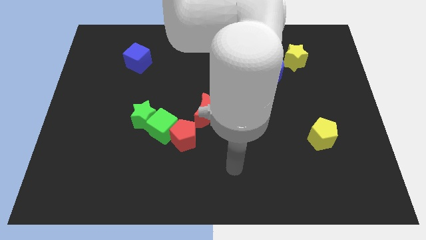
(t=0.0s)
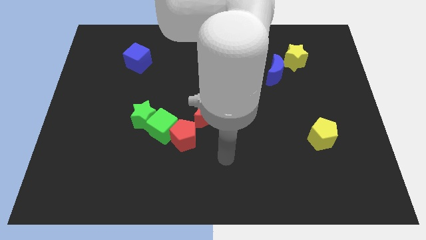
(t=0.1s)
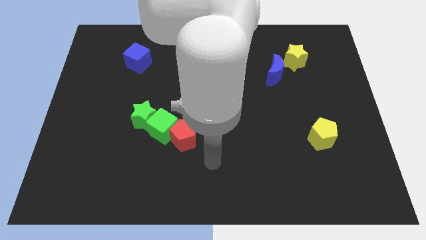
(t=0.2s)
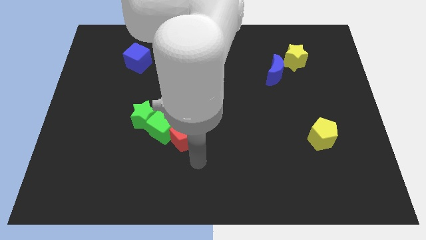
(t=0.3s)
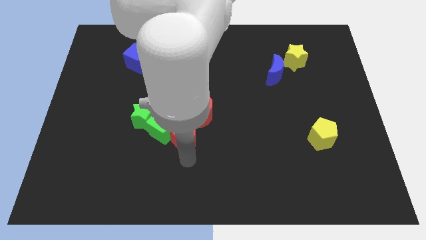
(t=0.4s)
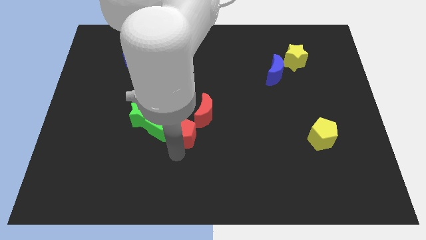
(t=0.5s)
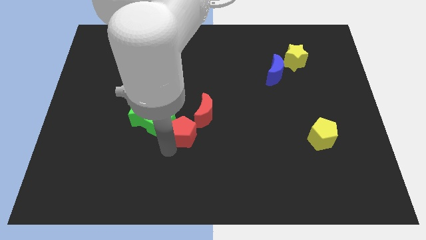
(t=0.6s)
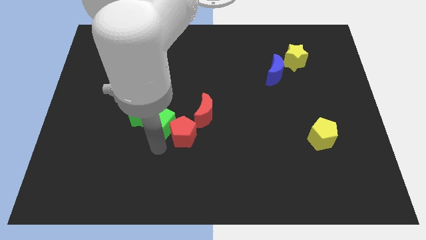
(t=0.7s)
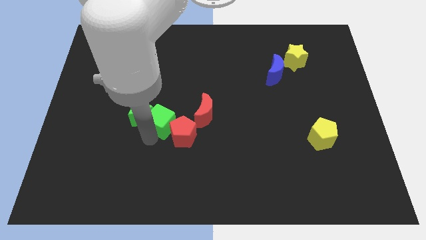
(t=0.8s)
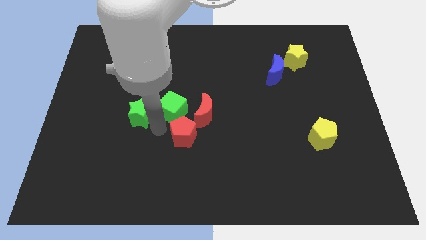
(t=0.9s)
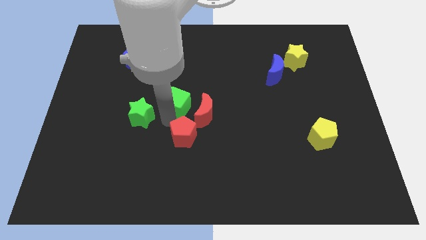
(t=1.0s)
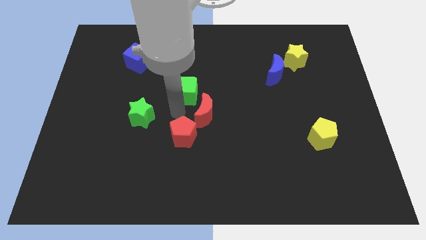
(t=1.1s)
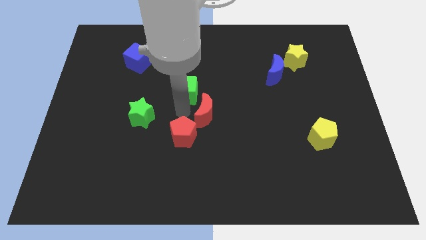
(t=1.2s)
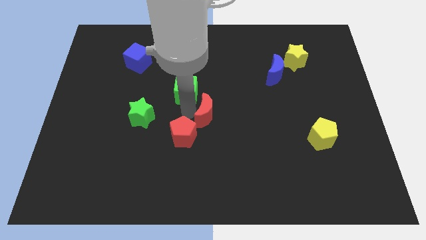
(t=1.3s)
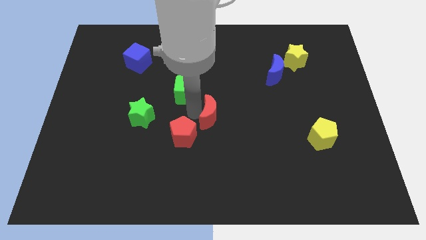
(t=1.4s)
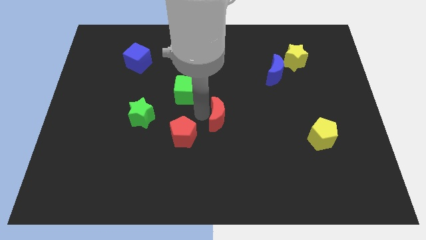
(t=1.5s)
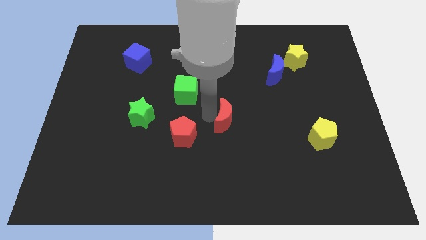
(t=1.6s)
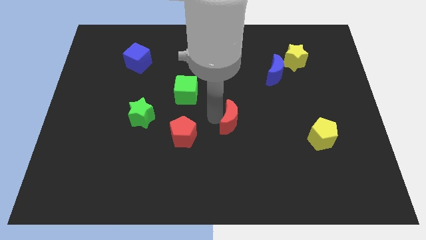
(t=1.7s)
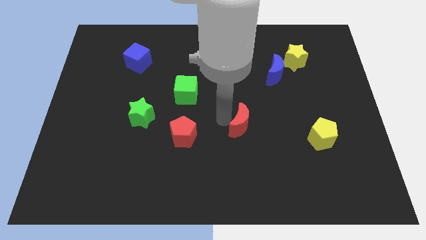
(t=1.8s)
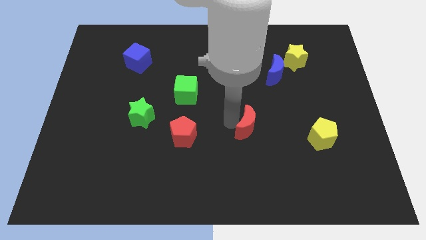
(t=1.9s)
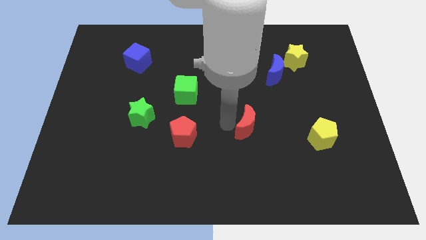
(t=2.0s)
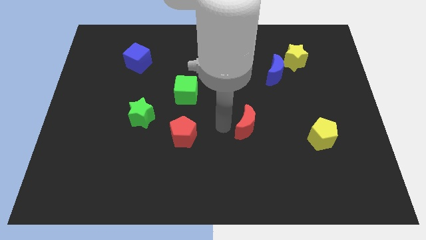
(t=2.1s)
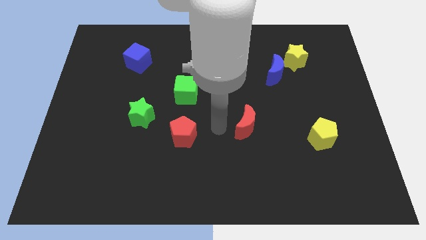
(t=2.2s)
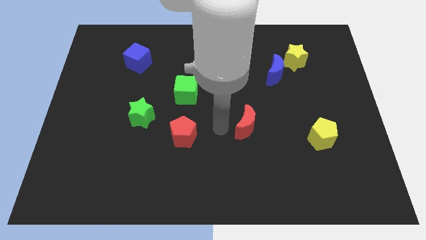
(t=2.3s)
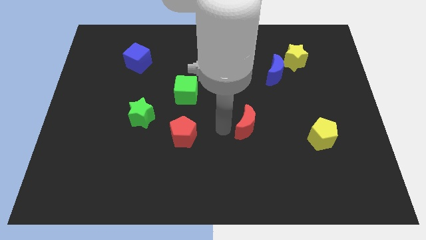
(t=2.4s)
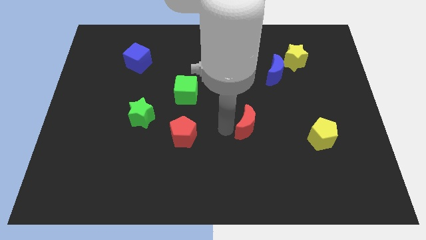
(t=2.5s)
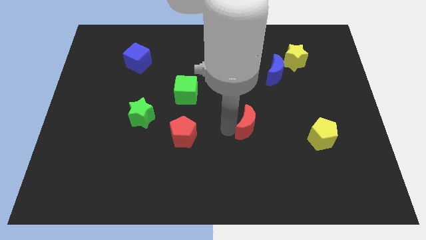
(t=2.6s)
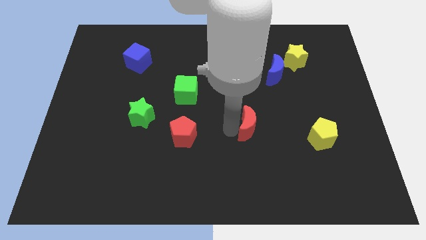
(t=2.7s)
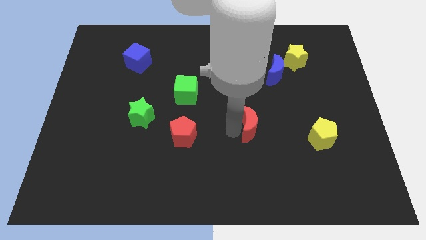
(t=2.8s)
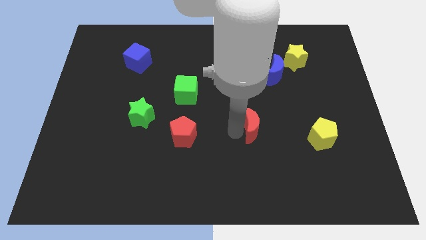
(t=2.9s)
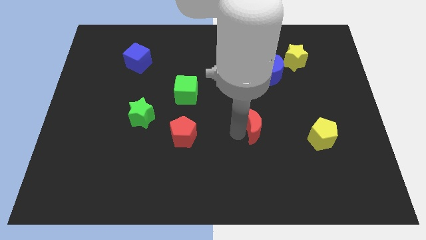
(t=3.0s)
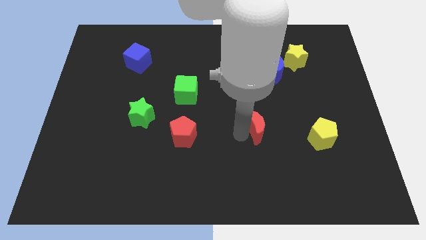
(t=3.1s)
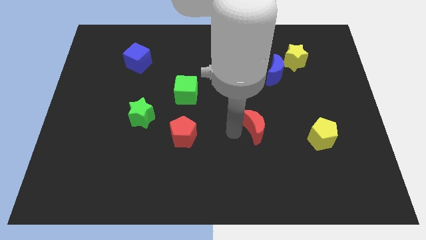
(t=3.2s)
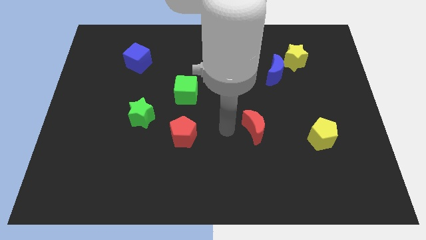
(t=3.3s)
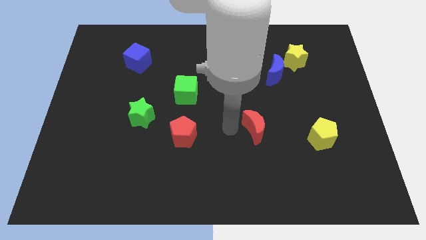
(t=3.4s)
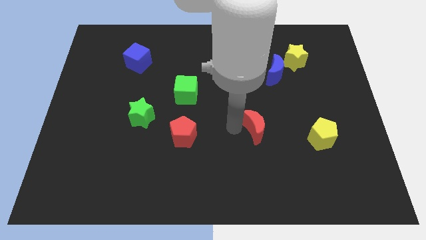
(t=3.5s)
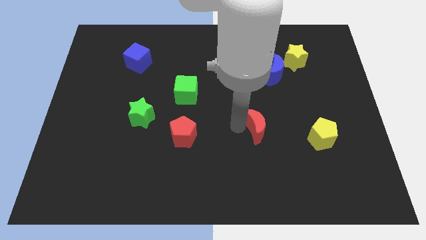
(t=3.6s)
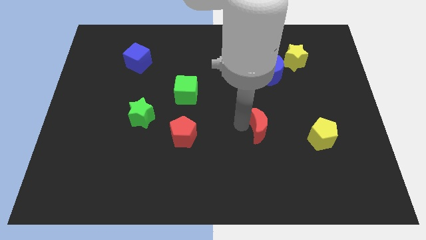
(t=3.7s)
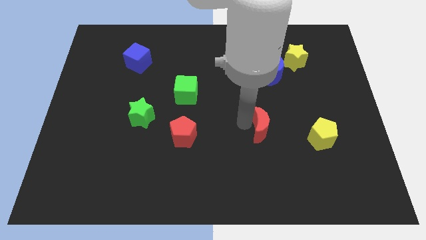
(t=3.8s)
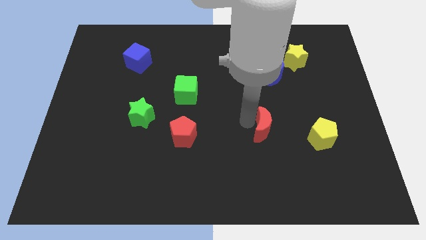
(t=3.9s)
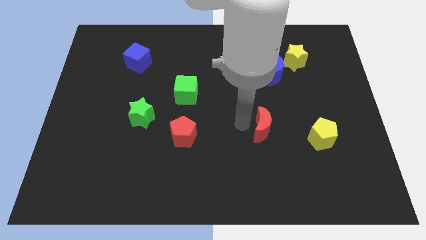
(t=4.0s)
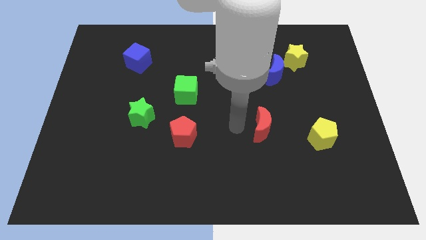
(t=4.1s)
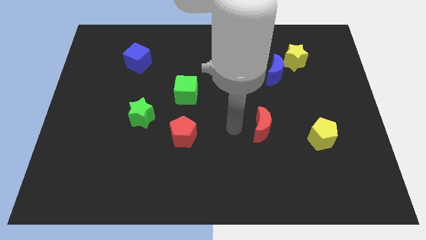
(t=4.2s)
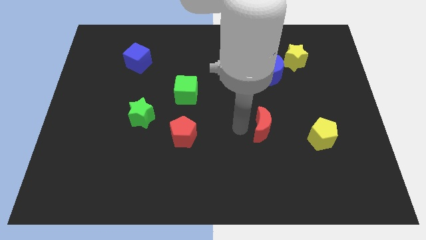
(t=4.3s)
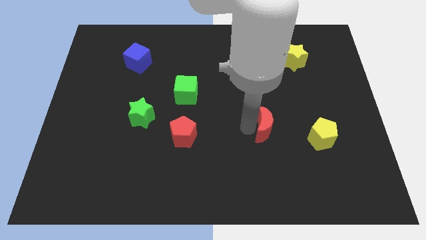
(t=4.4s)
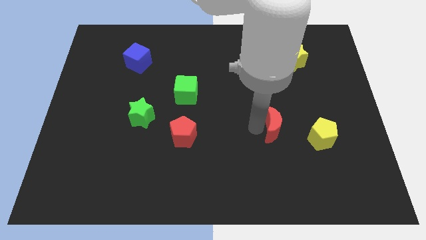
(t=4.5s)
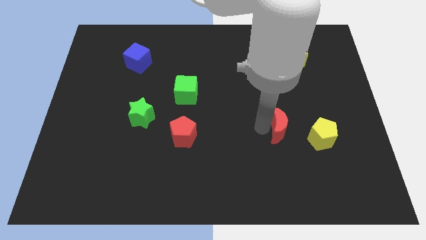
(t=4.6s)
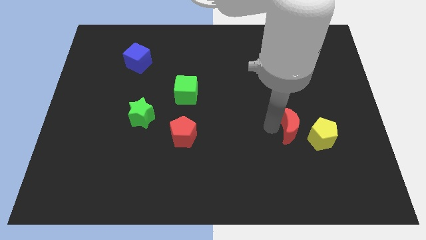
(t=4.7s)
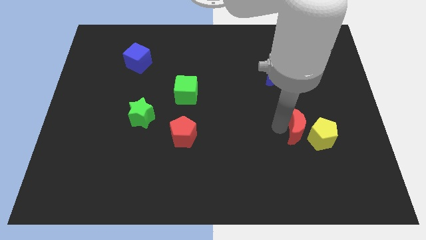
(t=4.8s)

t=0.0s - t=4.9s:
slide the red moon next to the yellow pentagon

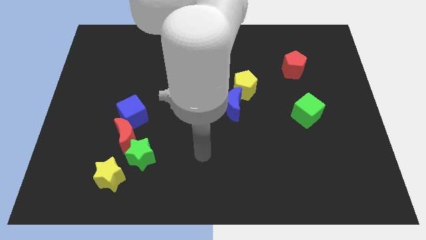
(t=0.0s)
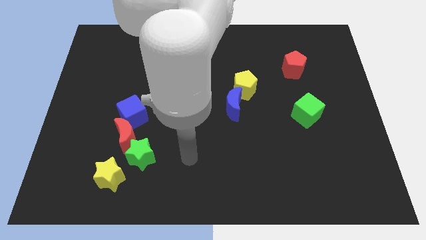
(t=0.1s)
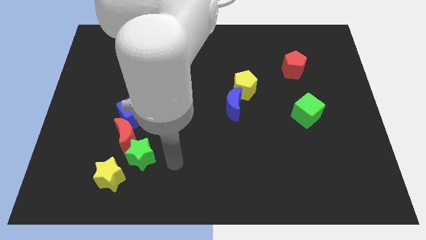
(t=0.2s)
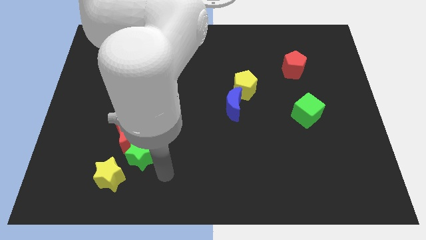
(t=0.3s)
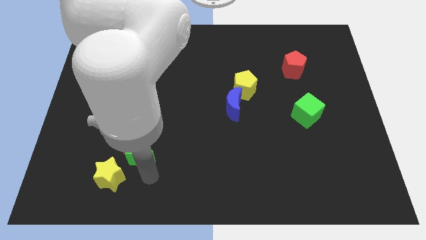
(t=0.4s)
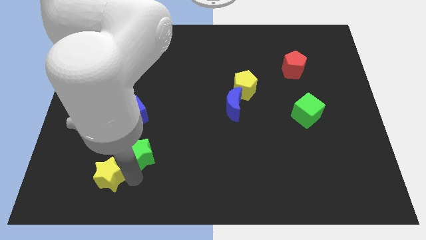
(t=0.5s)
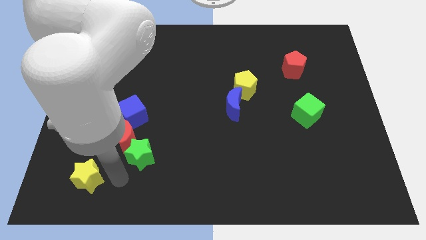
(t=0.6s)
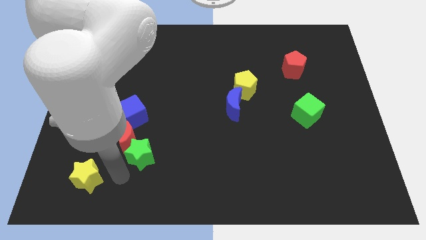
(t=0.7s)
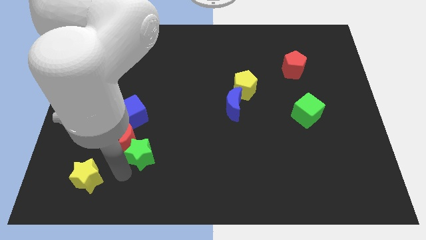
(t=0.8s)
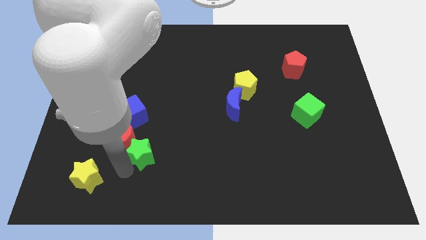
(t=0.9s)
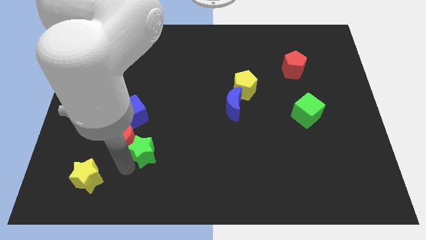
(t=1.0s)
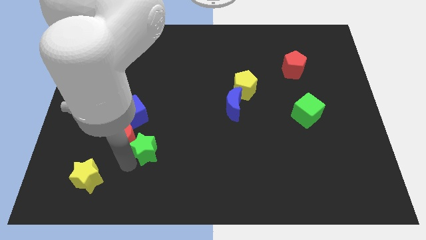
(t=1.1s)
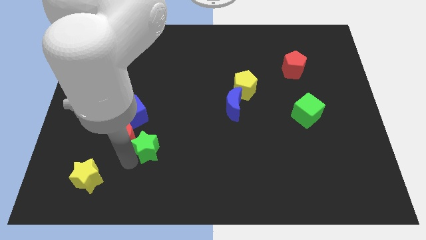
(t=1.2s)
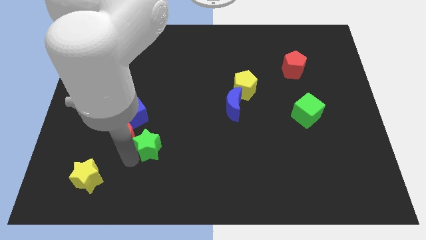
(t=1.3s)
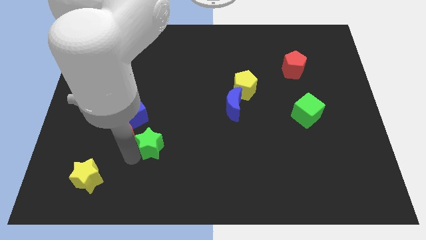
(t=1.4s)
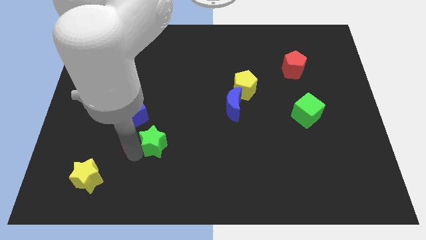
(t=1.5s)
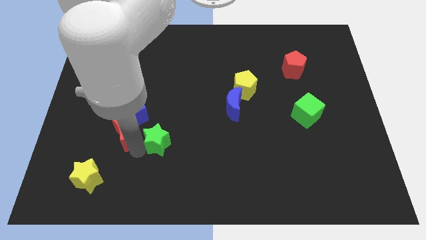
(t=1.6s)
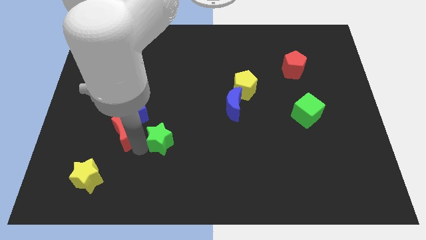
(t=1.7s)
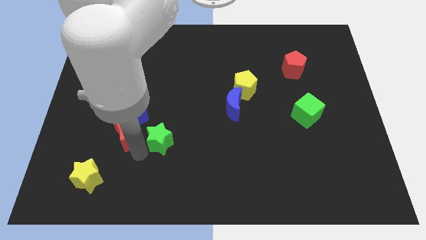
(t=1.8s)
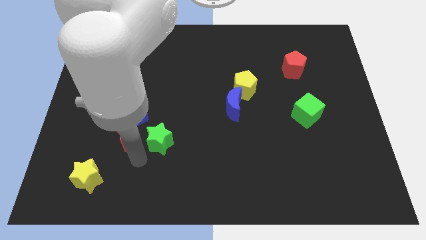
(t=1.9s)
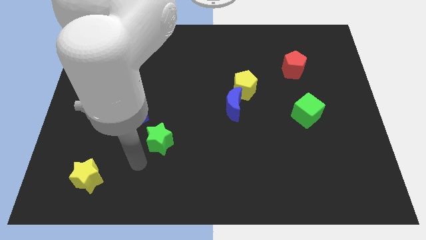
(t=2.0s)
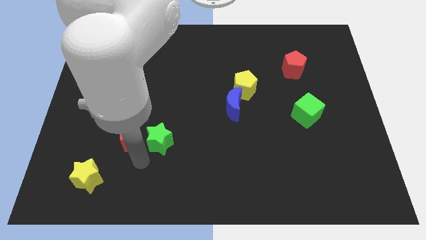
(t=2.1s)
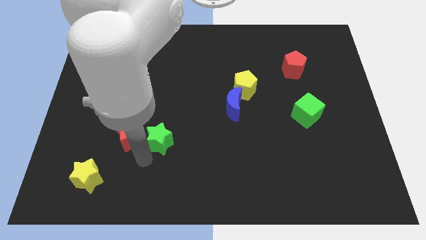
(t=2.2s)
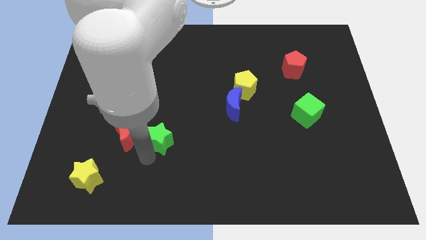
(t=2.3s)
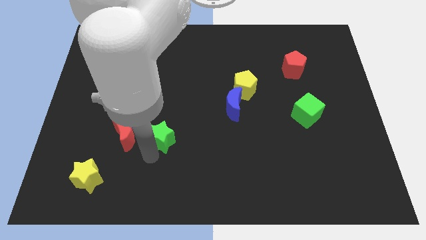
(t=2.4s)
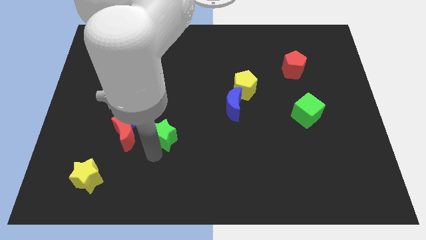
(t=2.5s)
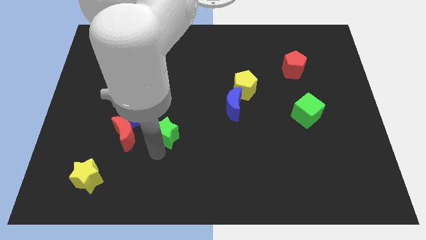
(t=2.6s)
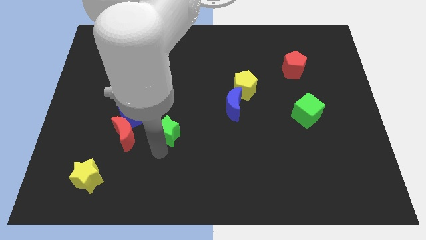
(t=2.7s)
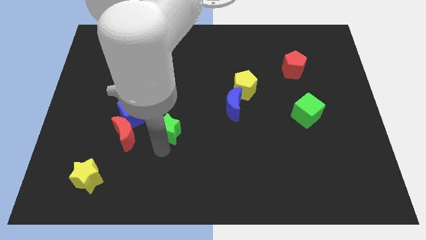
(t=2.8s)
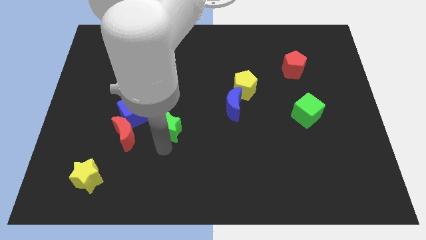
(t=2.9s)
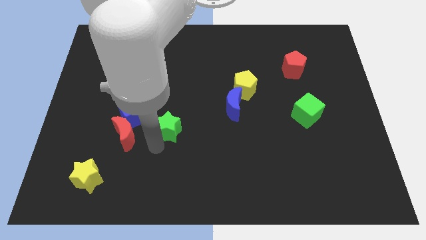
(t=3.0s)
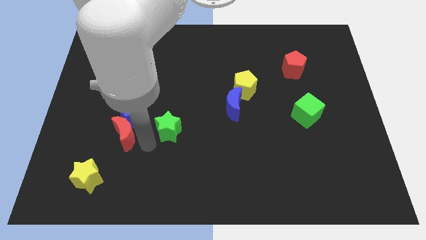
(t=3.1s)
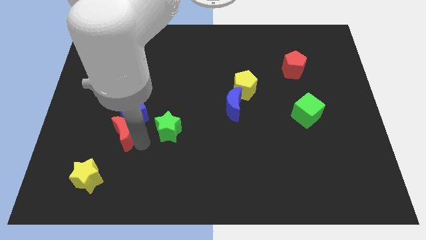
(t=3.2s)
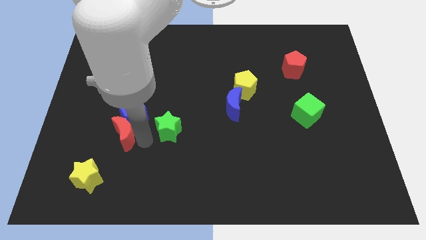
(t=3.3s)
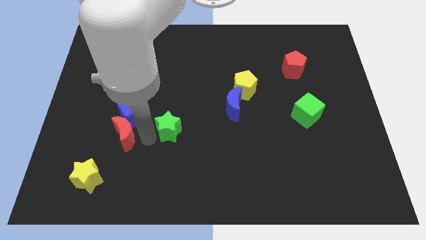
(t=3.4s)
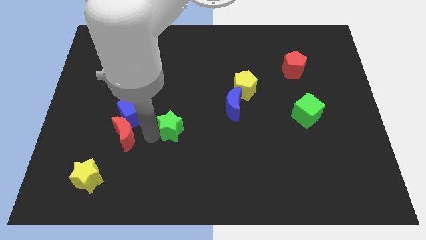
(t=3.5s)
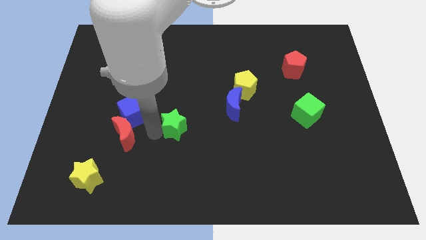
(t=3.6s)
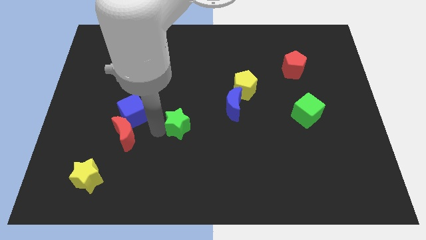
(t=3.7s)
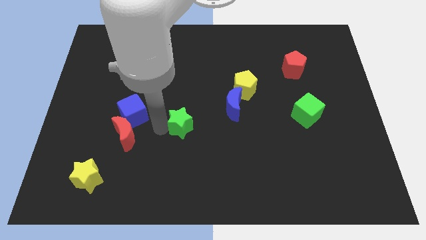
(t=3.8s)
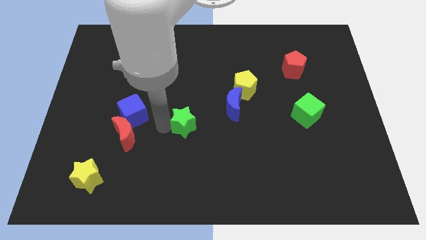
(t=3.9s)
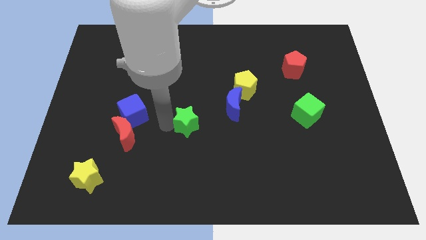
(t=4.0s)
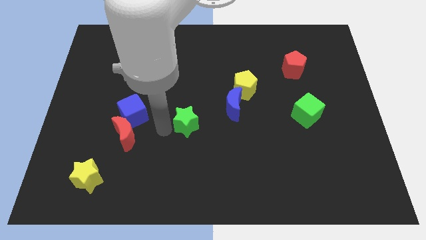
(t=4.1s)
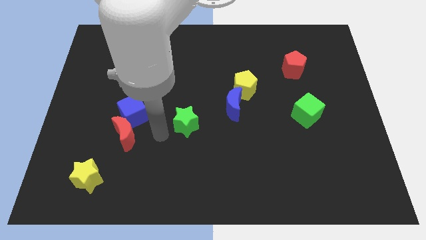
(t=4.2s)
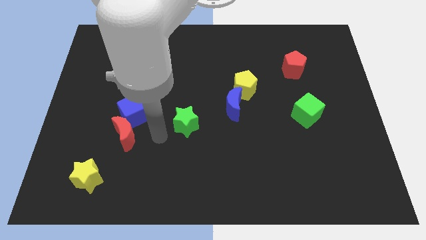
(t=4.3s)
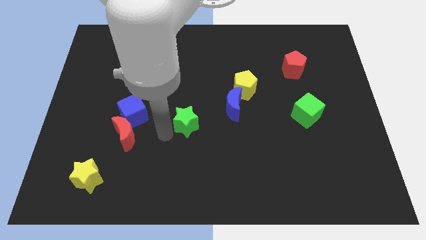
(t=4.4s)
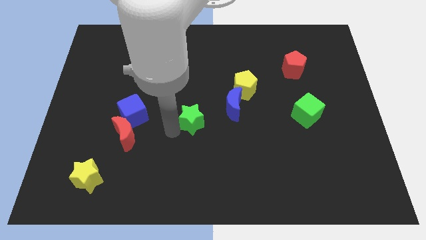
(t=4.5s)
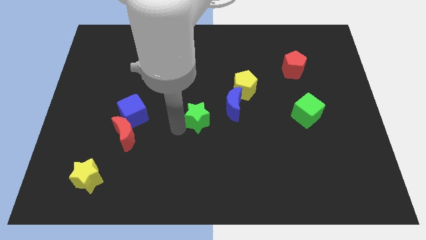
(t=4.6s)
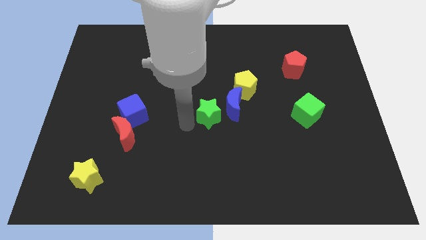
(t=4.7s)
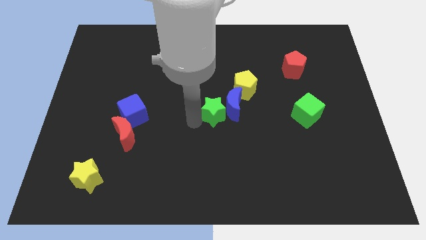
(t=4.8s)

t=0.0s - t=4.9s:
slide the green star close to the blue moon
